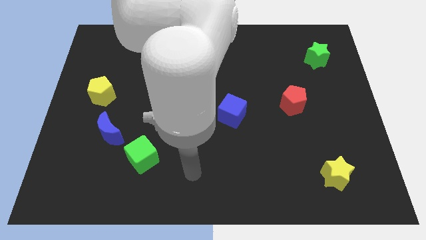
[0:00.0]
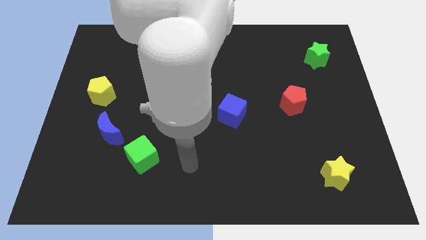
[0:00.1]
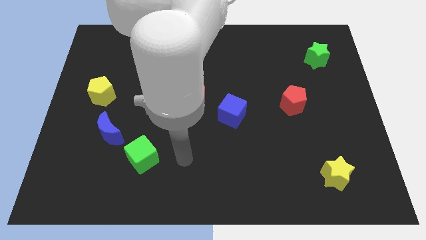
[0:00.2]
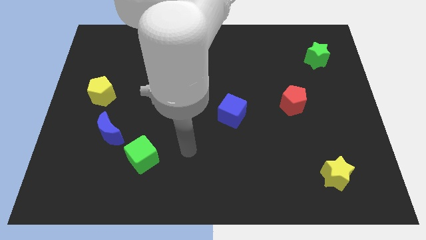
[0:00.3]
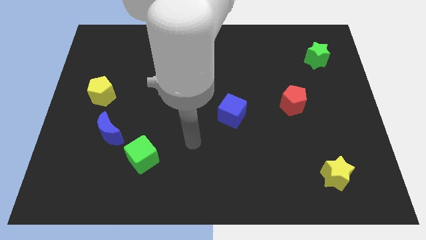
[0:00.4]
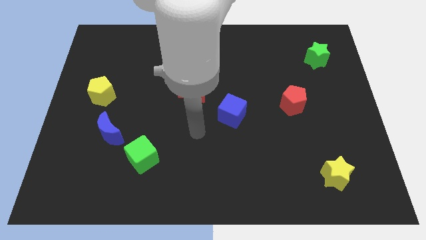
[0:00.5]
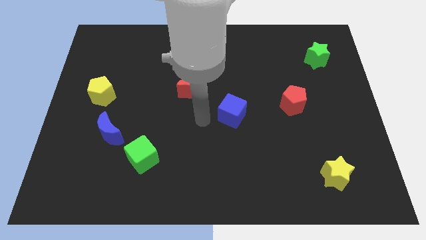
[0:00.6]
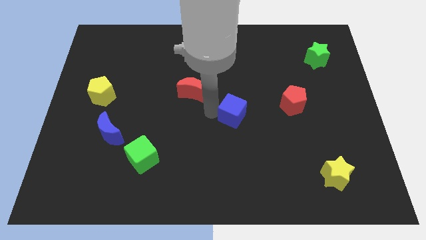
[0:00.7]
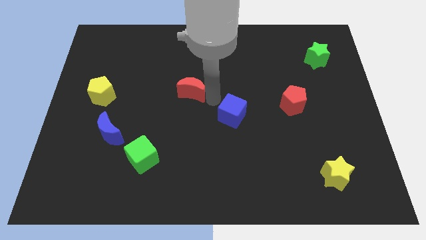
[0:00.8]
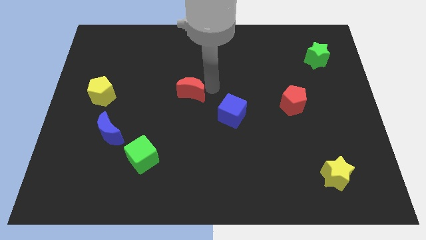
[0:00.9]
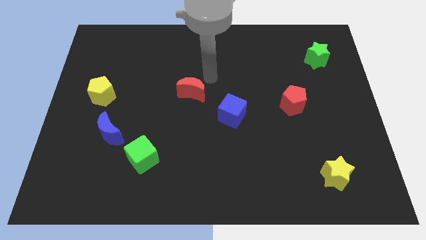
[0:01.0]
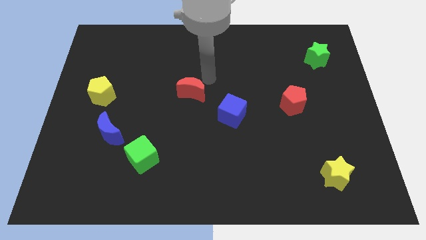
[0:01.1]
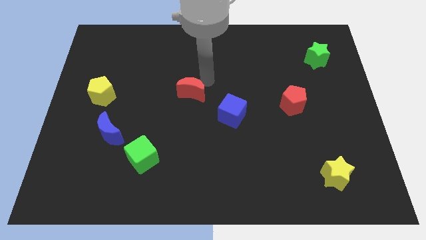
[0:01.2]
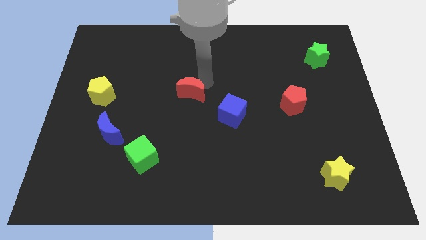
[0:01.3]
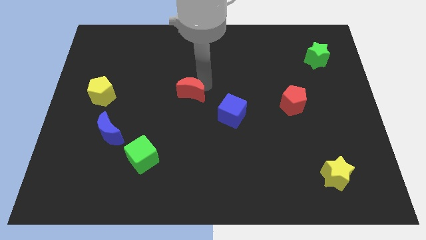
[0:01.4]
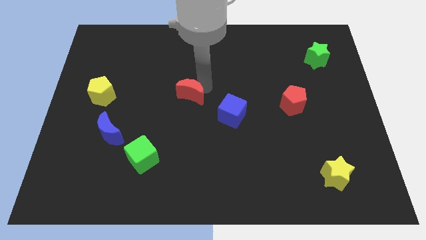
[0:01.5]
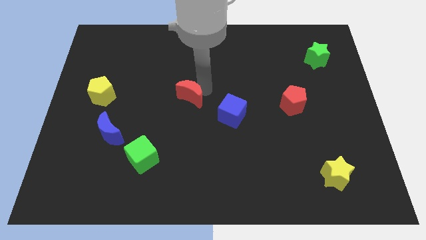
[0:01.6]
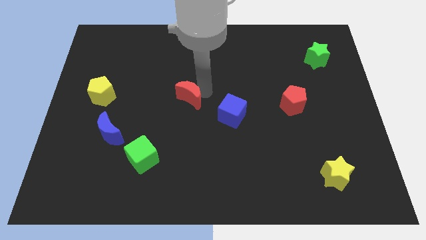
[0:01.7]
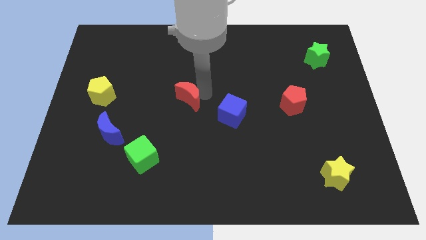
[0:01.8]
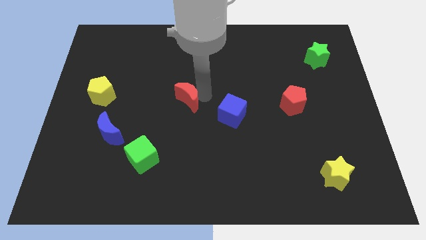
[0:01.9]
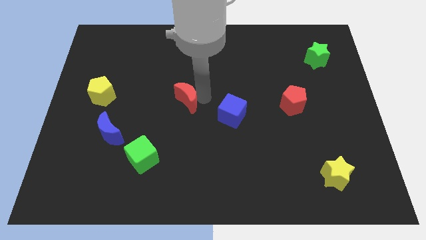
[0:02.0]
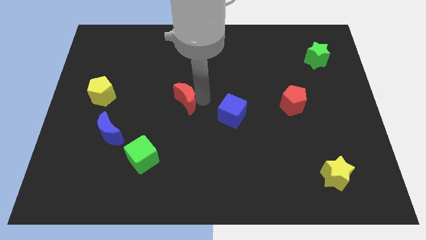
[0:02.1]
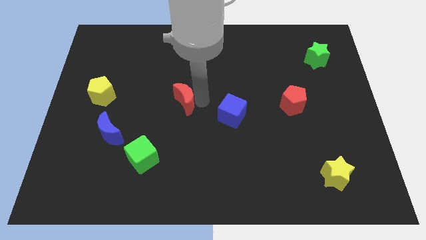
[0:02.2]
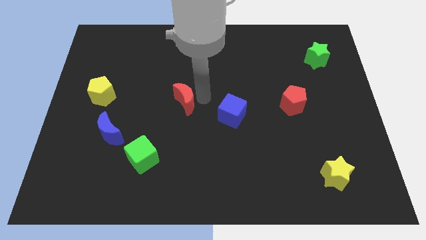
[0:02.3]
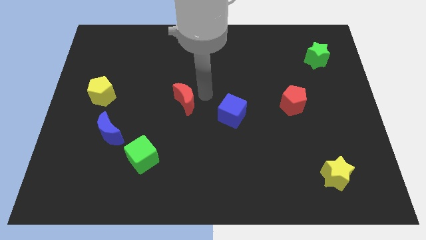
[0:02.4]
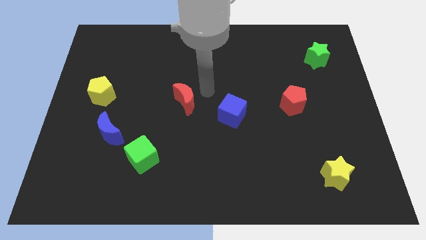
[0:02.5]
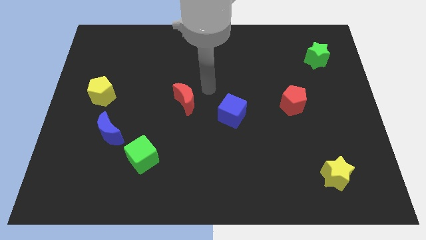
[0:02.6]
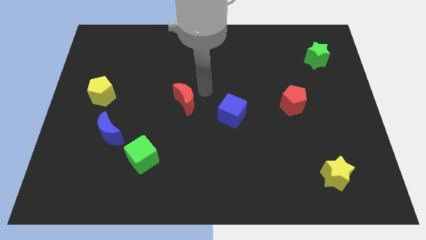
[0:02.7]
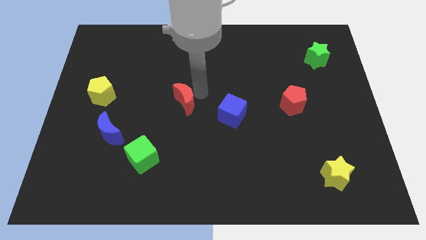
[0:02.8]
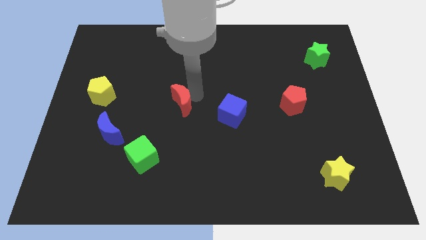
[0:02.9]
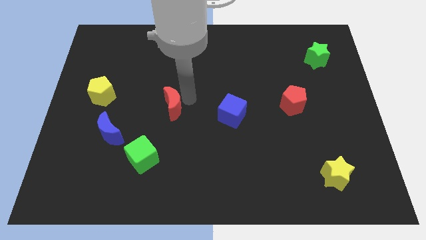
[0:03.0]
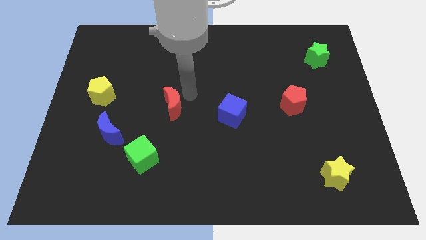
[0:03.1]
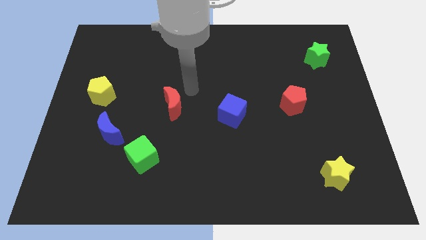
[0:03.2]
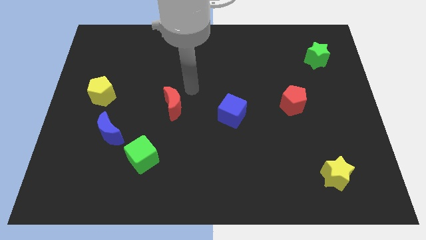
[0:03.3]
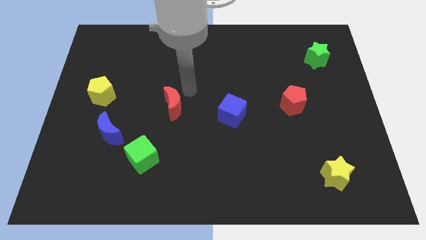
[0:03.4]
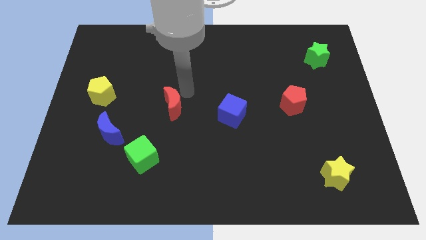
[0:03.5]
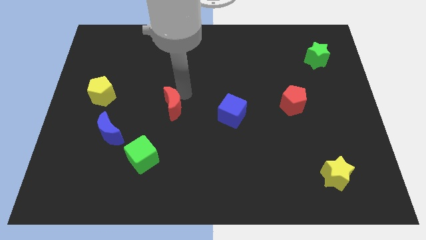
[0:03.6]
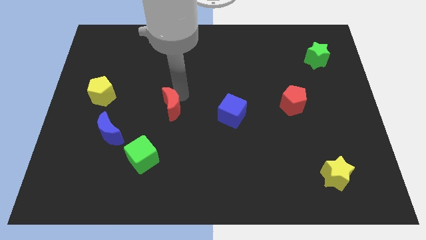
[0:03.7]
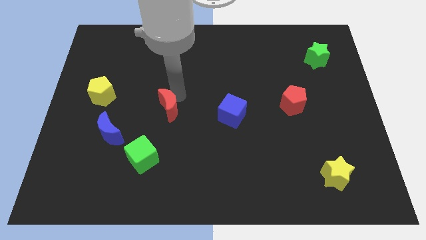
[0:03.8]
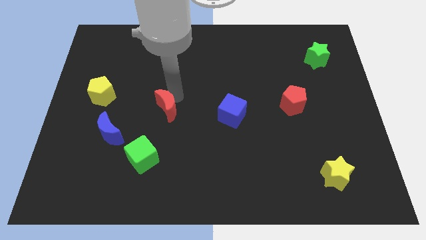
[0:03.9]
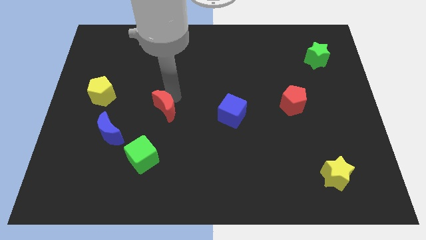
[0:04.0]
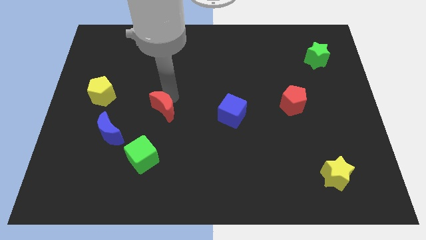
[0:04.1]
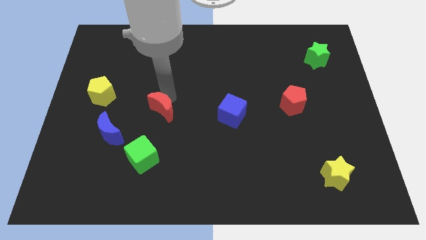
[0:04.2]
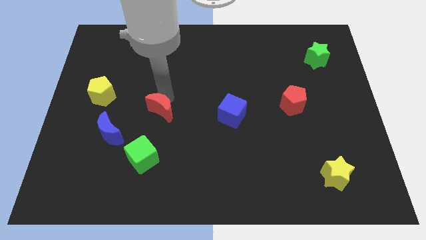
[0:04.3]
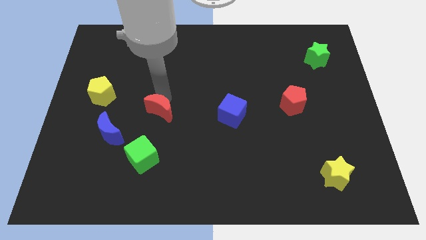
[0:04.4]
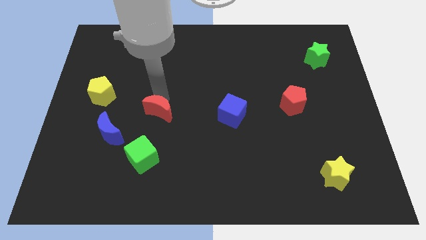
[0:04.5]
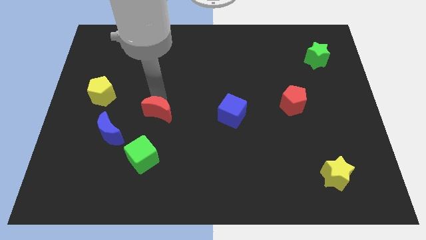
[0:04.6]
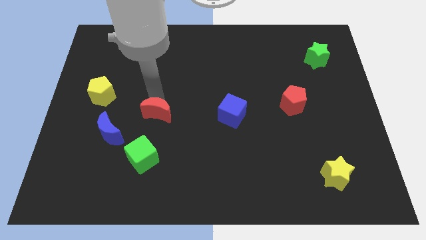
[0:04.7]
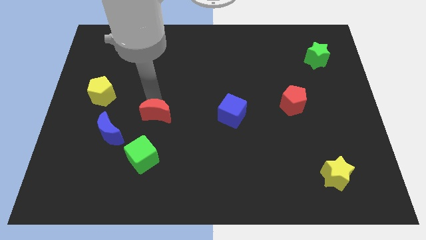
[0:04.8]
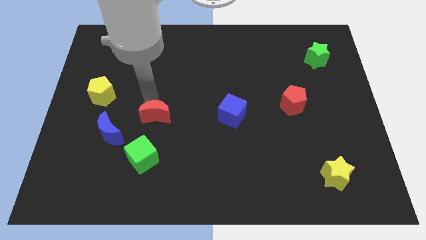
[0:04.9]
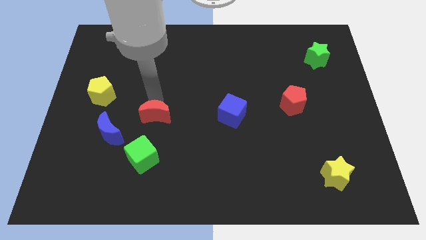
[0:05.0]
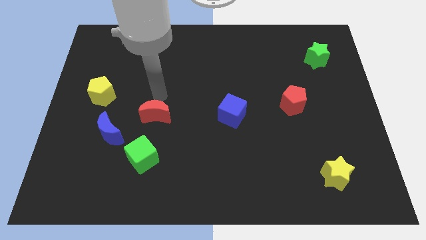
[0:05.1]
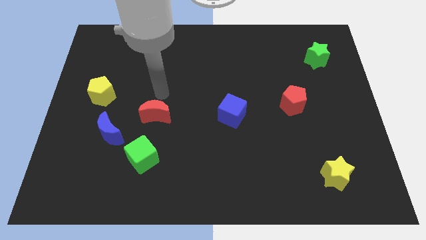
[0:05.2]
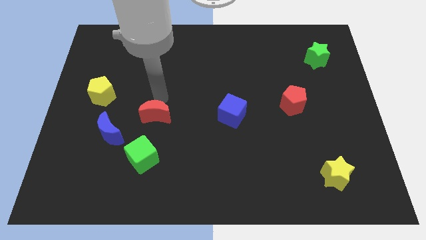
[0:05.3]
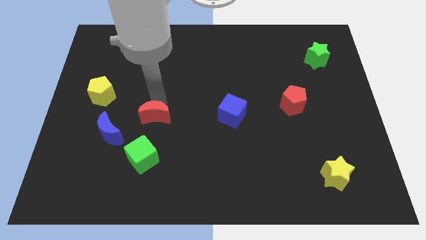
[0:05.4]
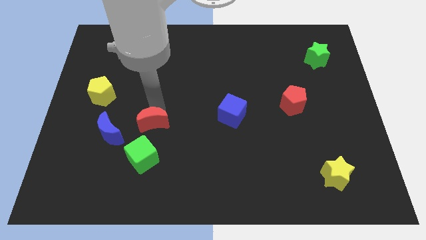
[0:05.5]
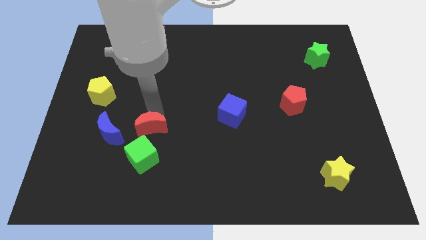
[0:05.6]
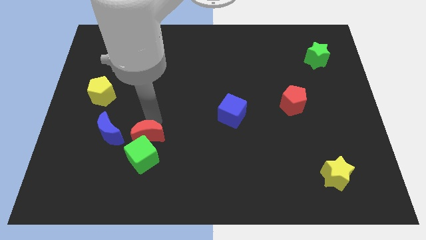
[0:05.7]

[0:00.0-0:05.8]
put the red moon towards the green cube

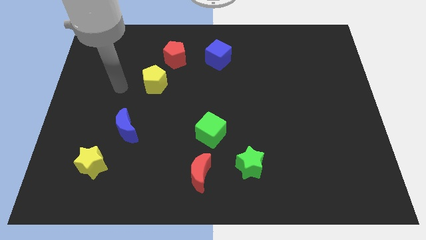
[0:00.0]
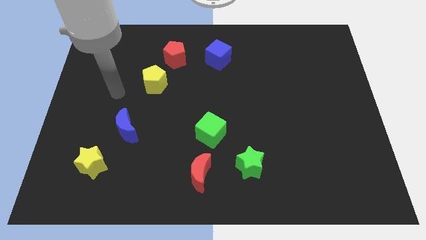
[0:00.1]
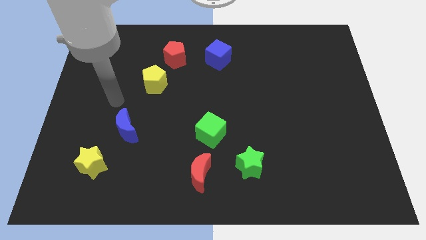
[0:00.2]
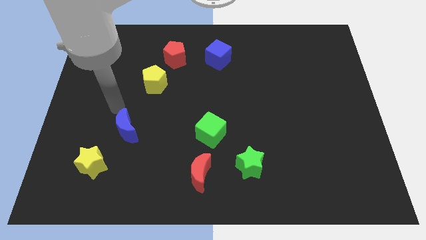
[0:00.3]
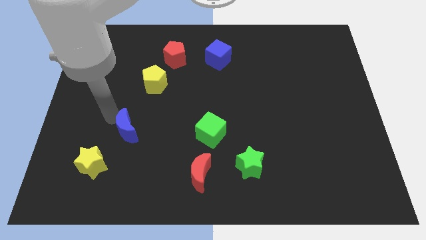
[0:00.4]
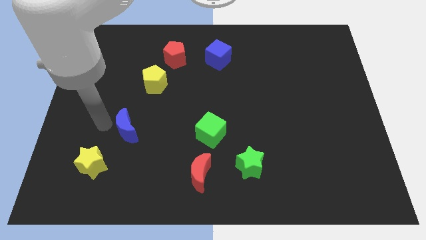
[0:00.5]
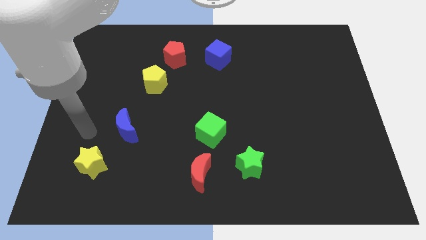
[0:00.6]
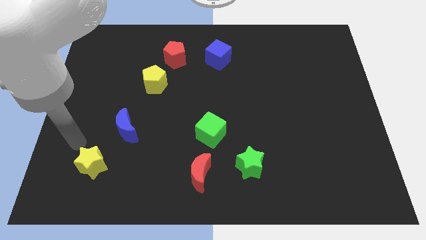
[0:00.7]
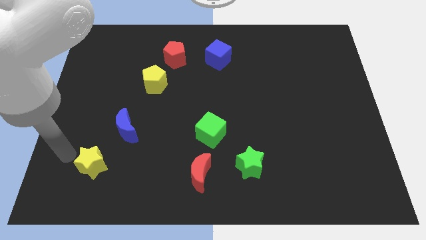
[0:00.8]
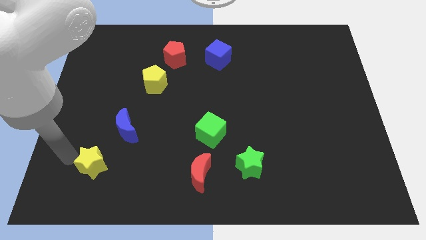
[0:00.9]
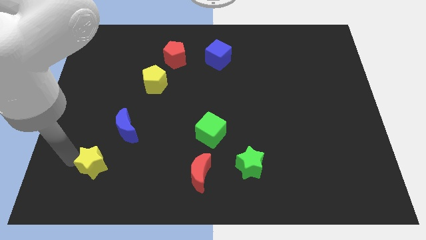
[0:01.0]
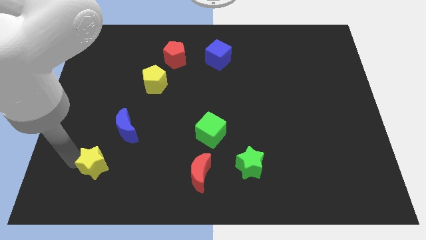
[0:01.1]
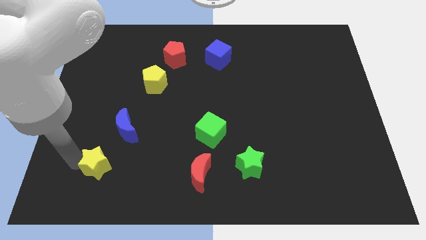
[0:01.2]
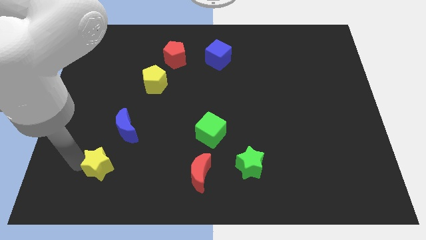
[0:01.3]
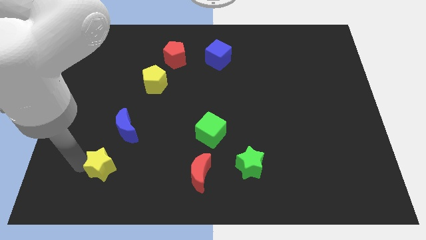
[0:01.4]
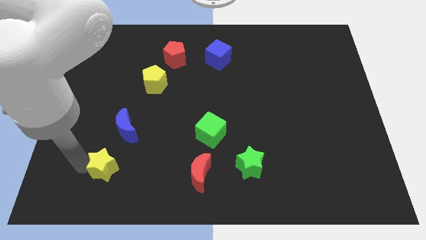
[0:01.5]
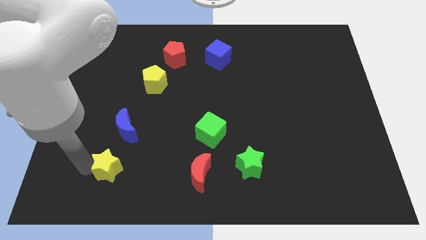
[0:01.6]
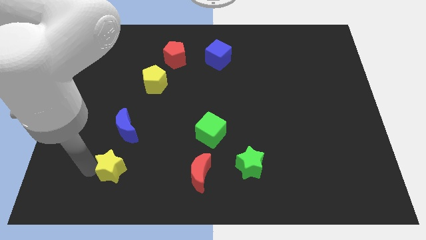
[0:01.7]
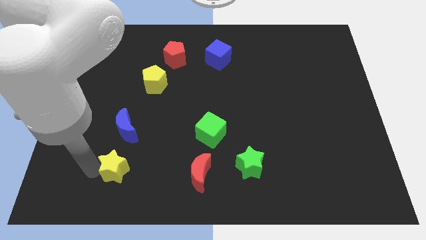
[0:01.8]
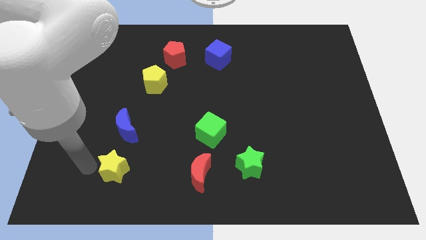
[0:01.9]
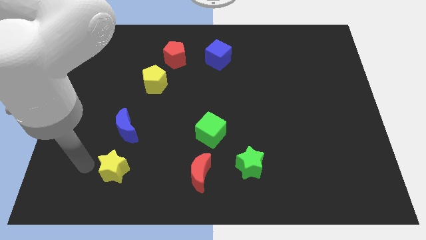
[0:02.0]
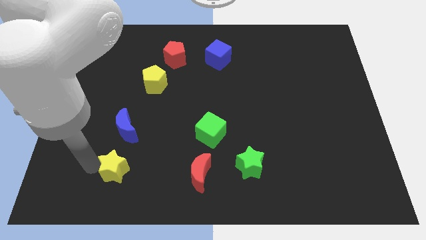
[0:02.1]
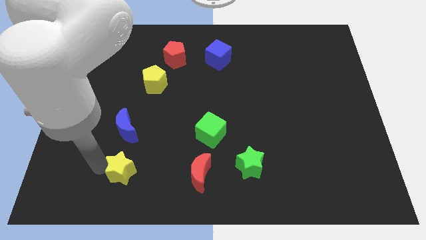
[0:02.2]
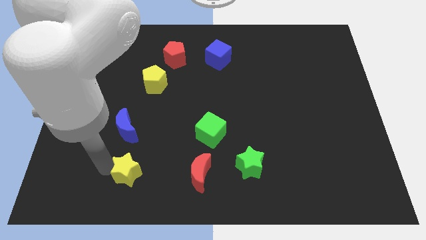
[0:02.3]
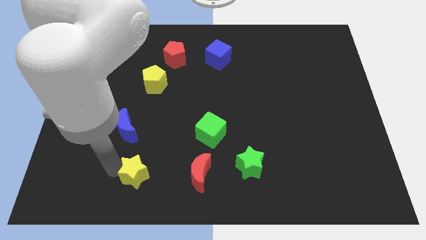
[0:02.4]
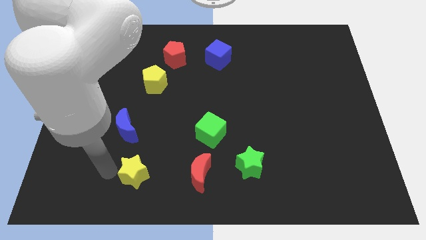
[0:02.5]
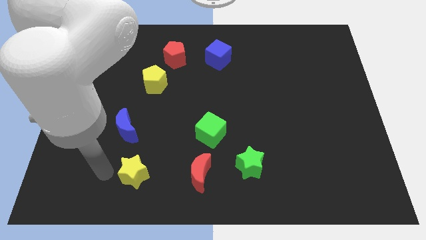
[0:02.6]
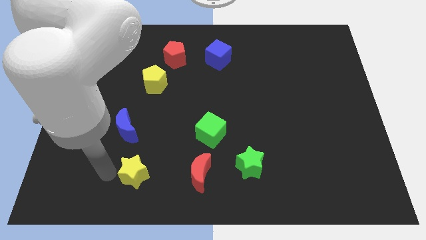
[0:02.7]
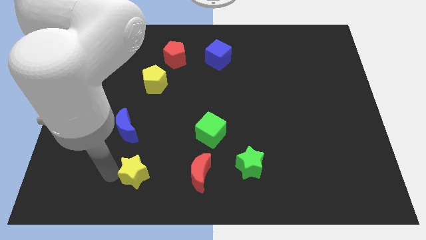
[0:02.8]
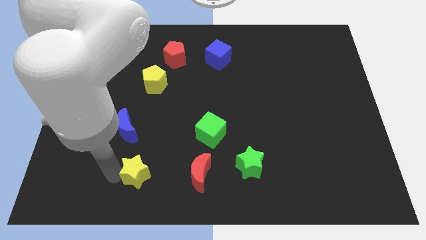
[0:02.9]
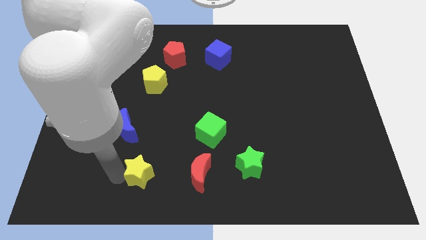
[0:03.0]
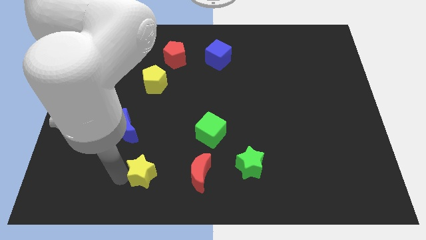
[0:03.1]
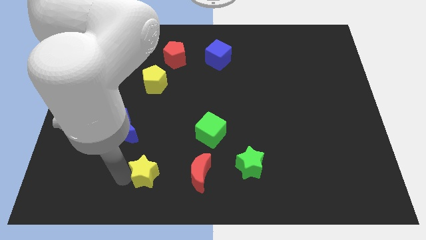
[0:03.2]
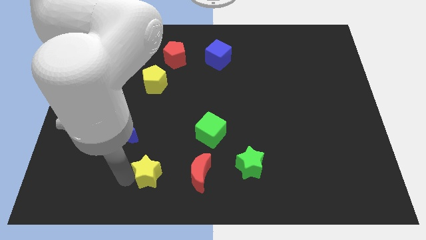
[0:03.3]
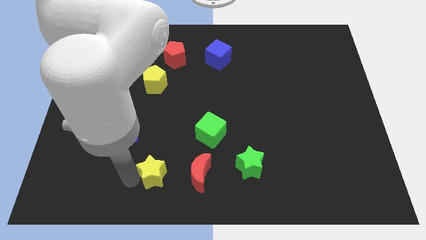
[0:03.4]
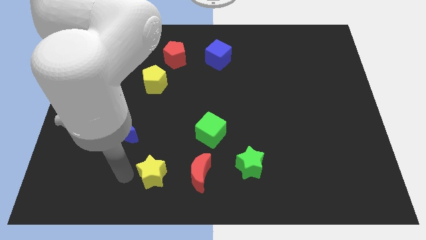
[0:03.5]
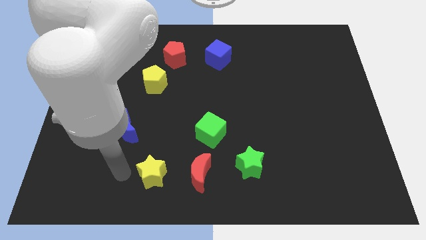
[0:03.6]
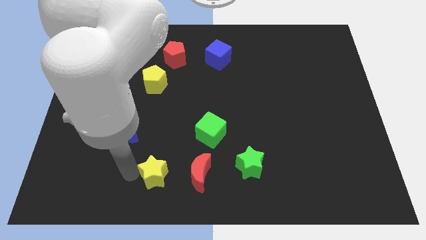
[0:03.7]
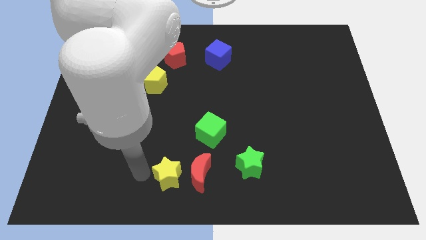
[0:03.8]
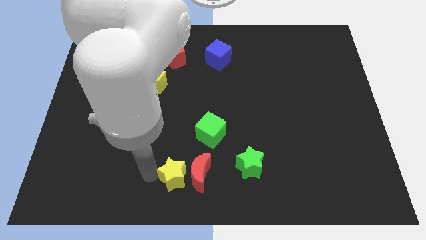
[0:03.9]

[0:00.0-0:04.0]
slide the yellow star towards the red moon
